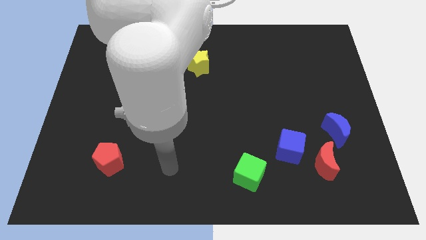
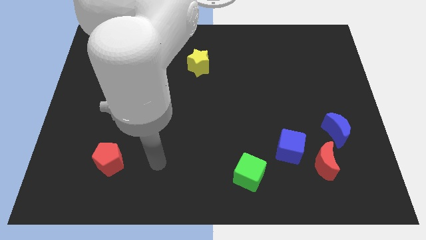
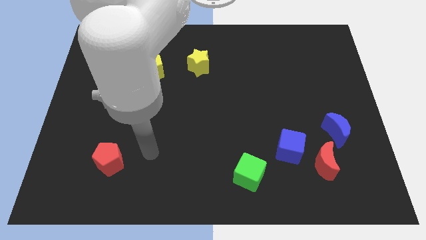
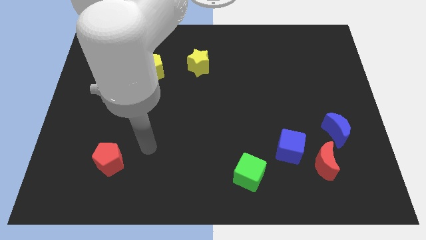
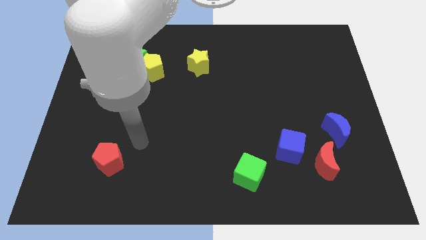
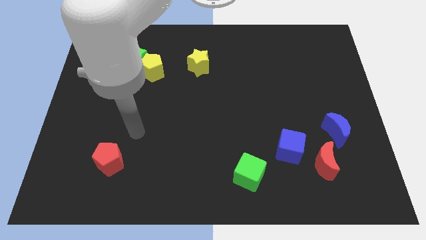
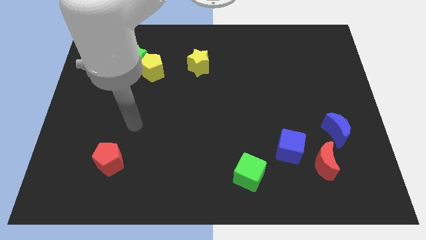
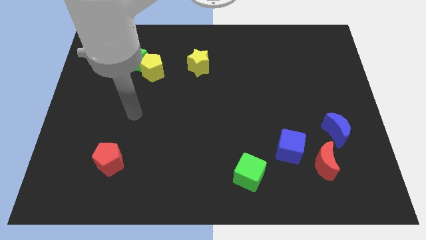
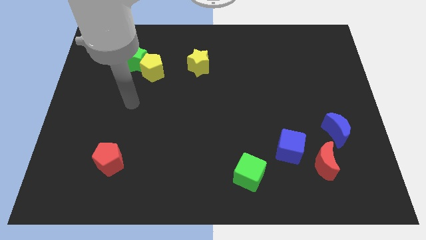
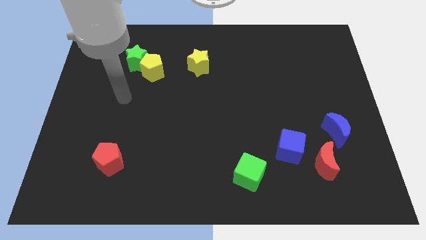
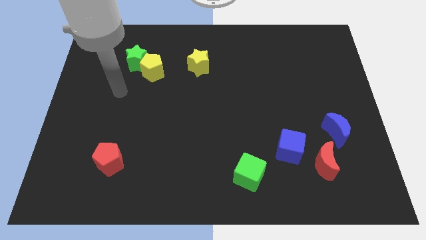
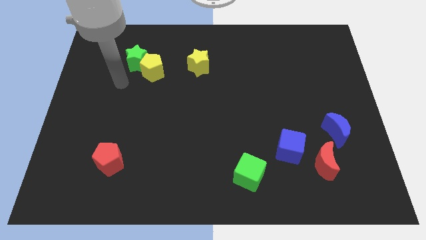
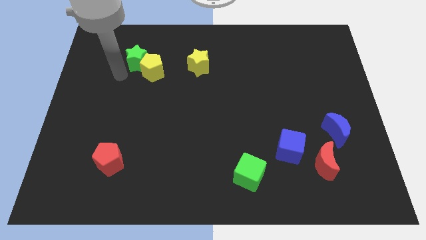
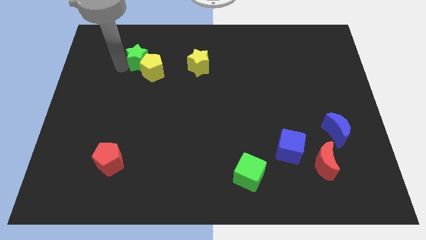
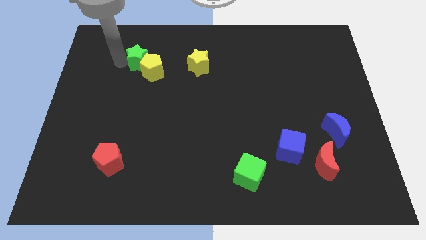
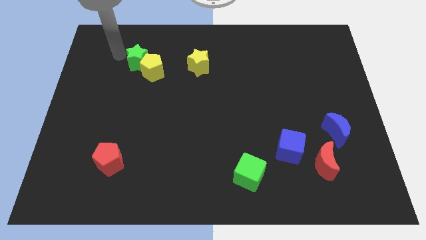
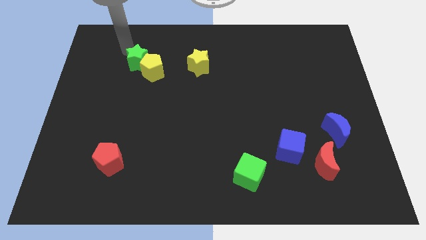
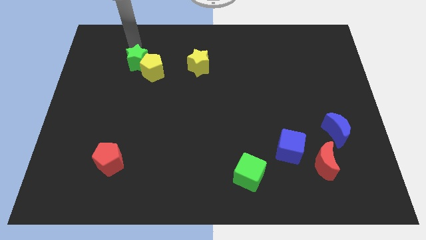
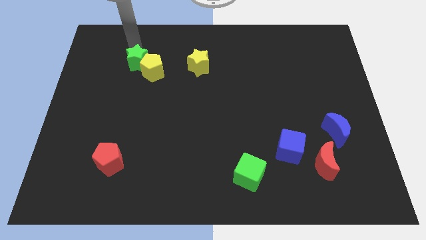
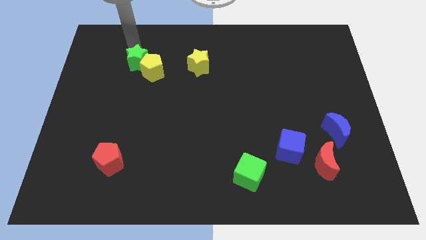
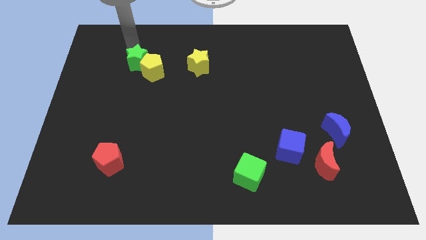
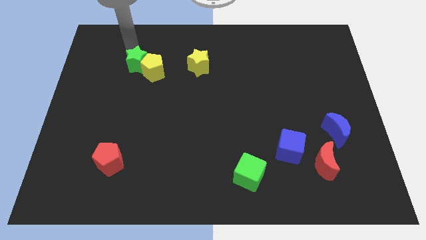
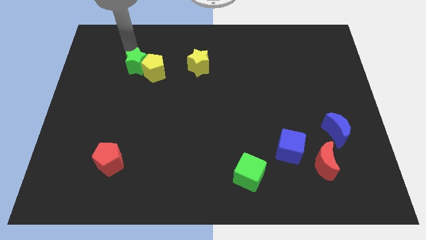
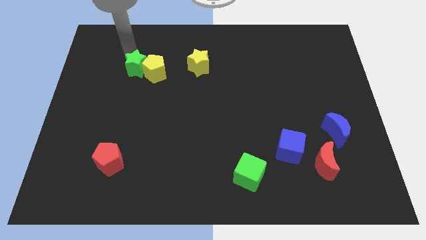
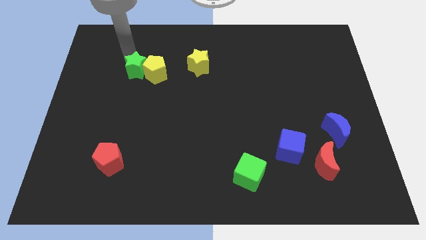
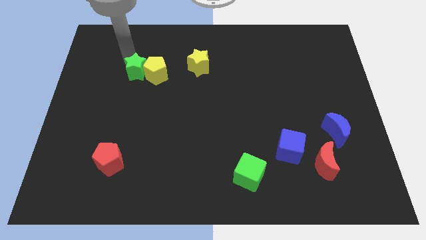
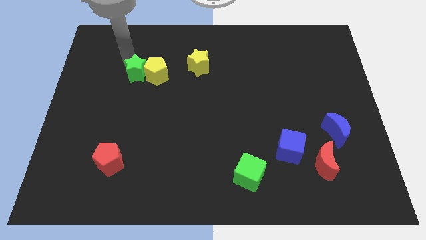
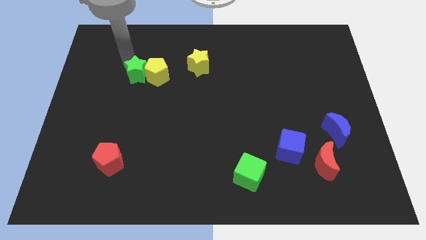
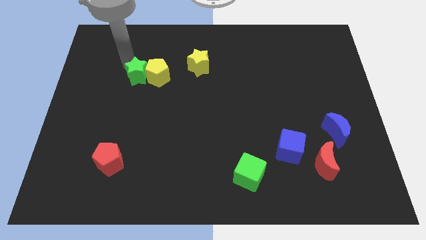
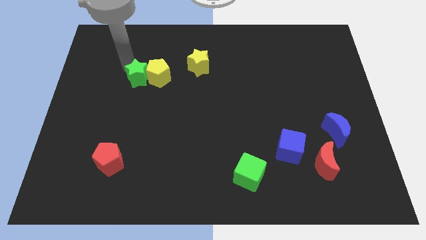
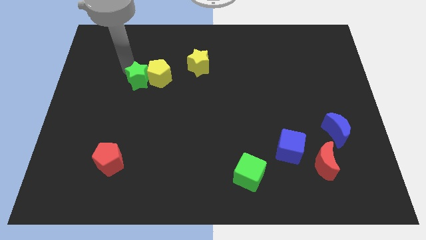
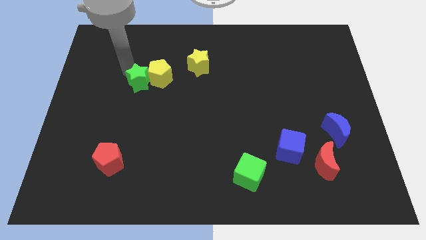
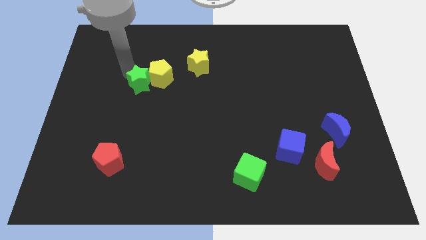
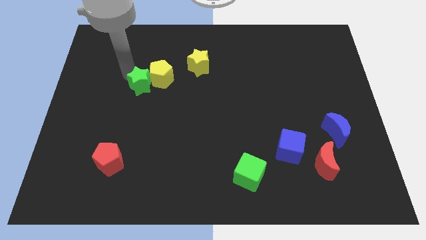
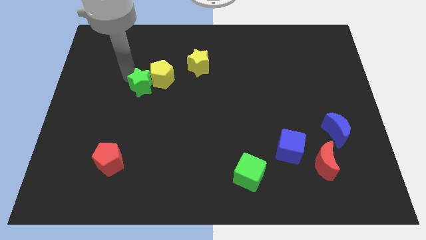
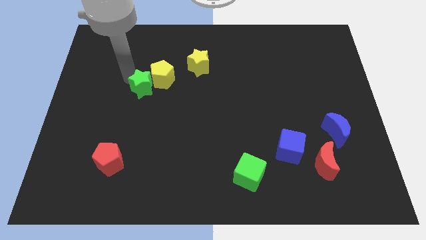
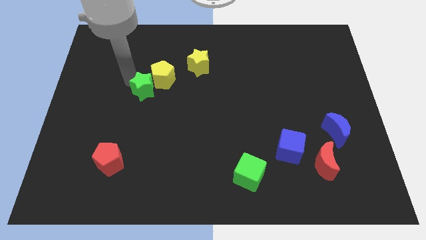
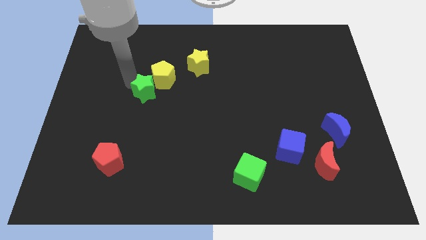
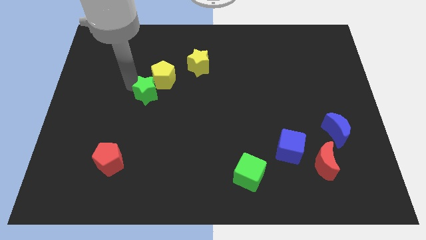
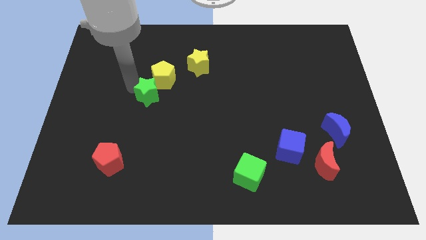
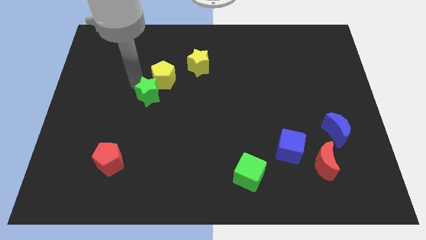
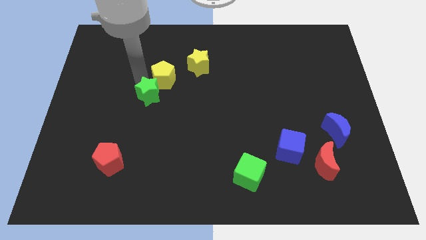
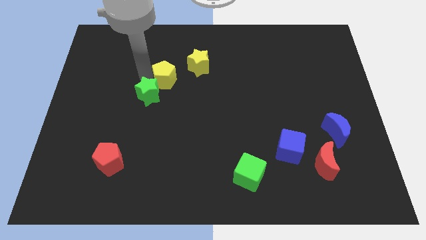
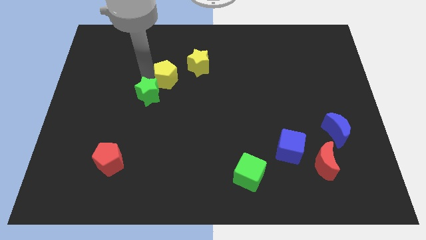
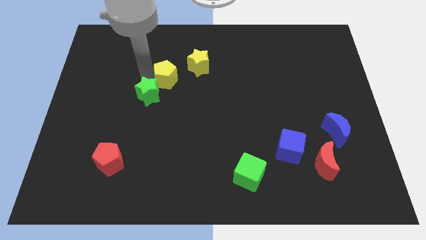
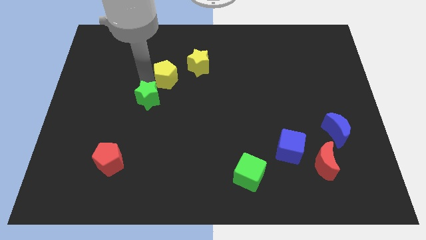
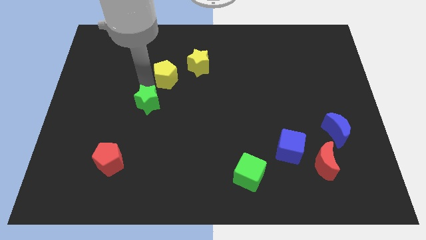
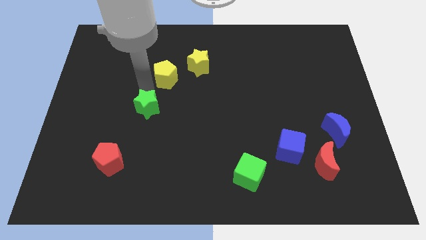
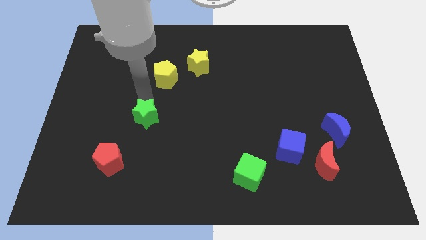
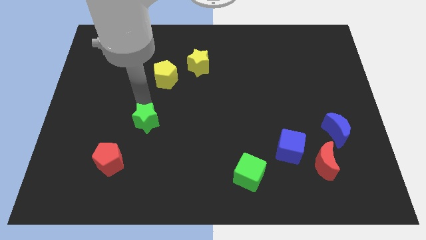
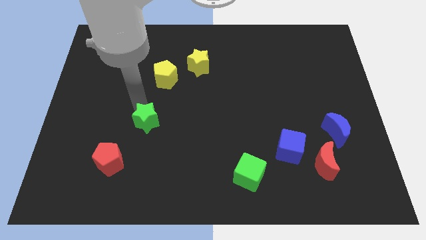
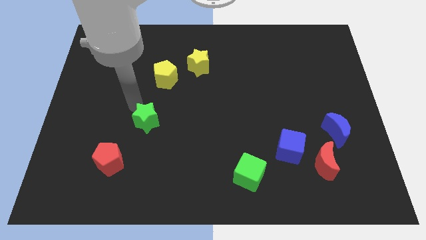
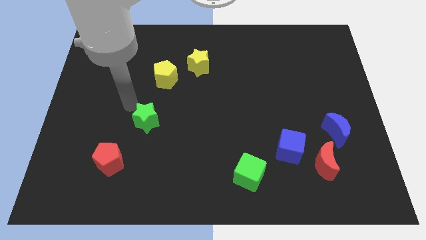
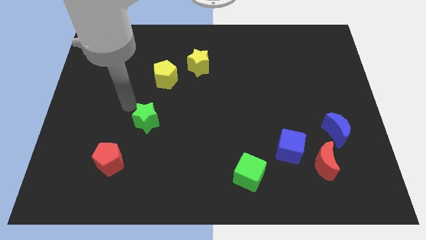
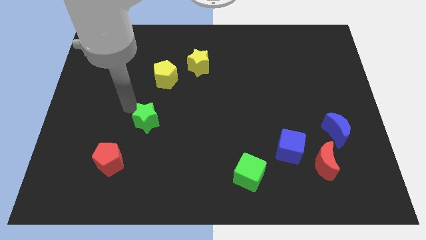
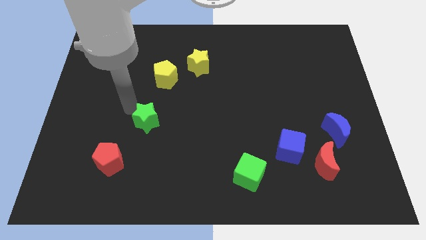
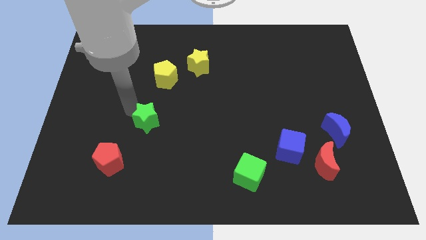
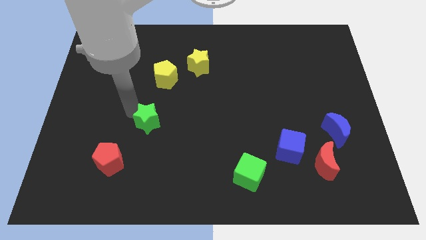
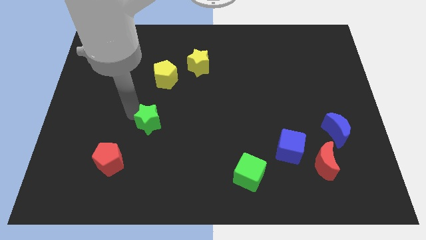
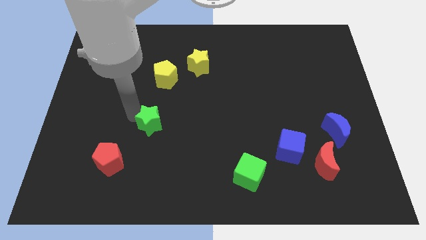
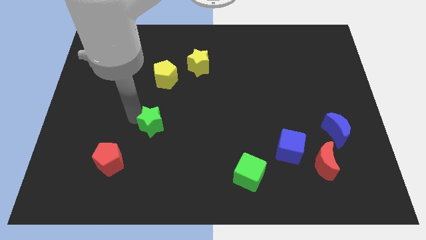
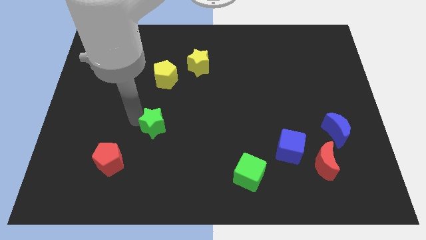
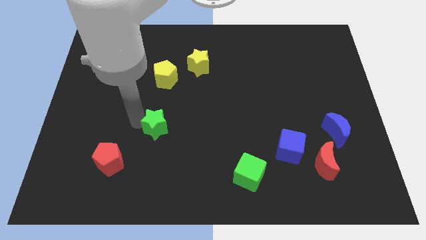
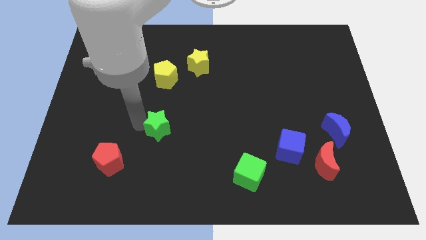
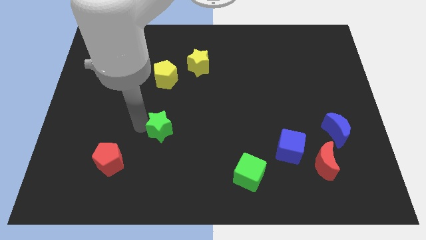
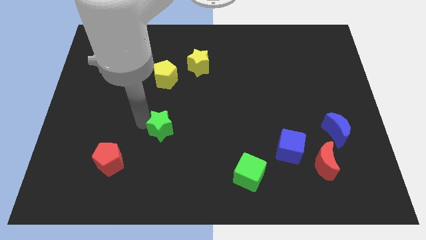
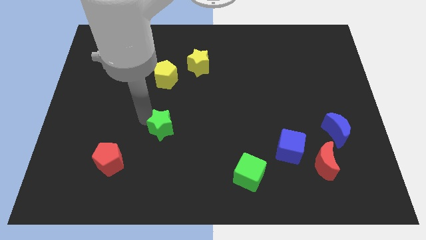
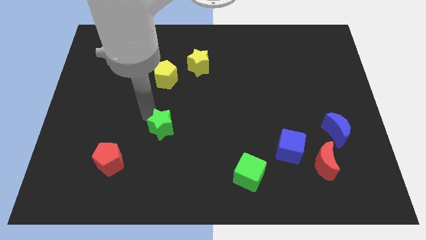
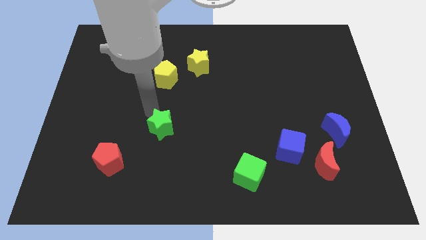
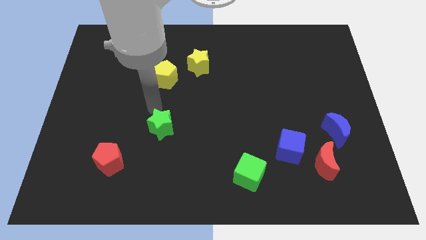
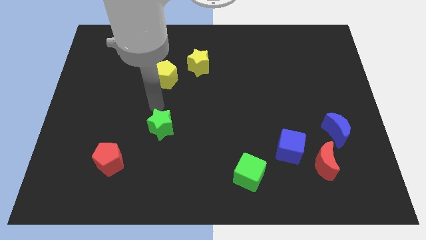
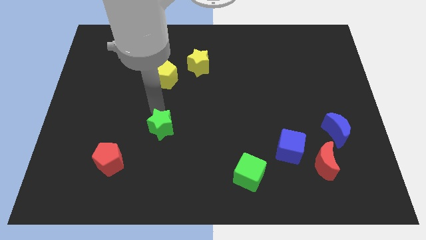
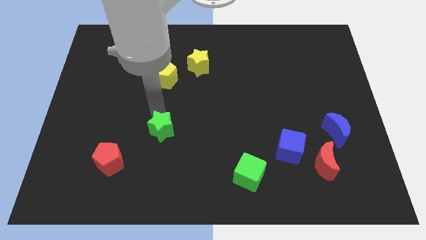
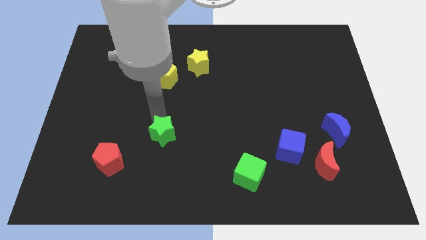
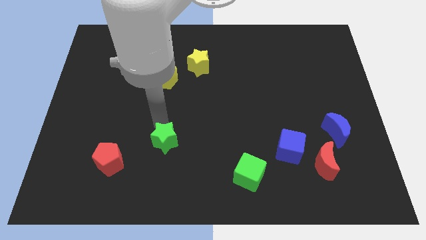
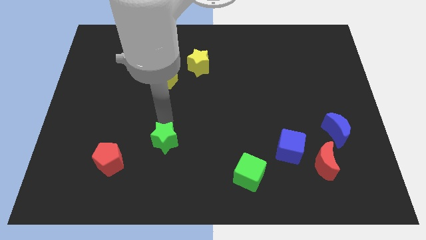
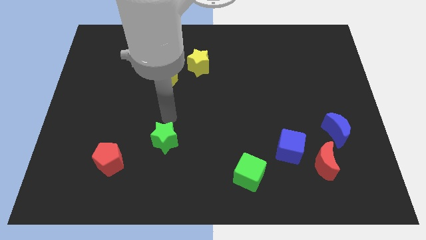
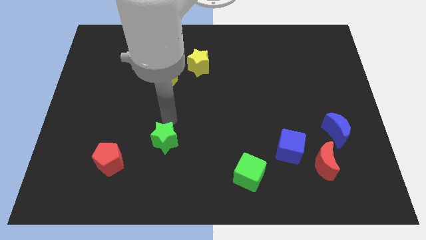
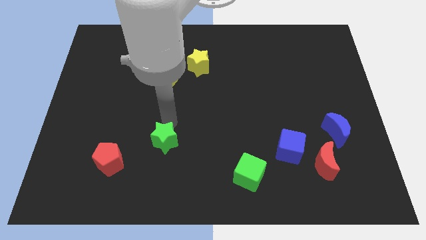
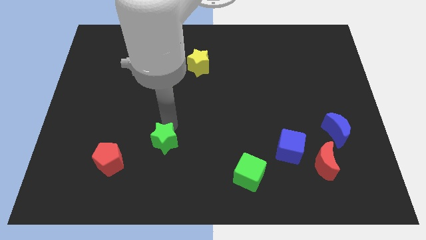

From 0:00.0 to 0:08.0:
put the green star to the right of the red pentagon
